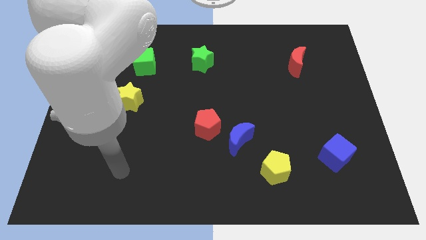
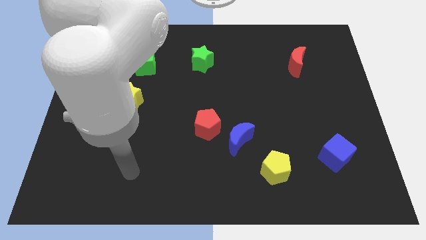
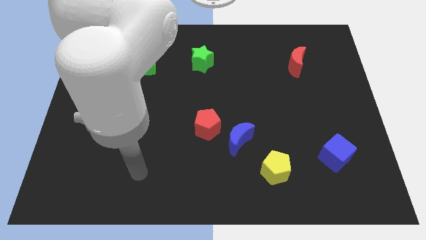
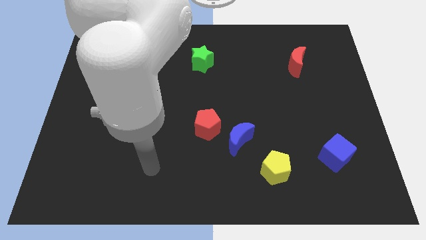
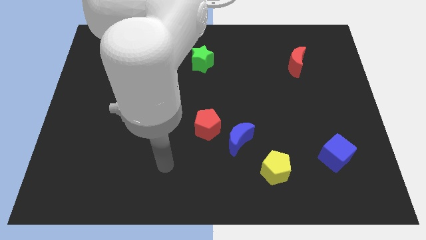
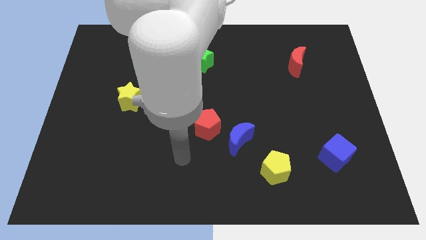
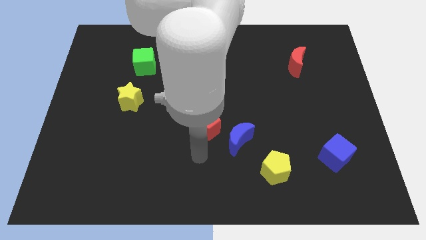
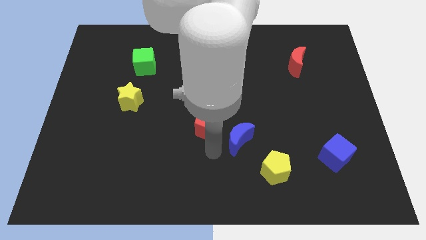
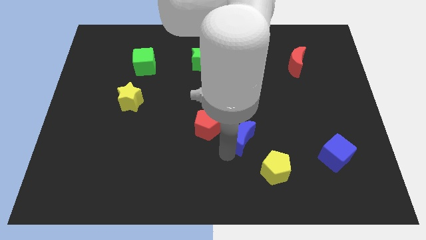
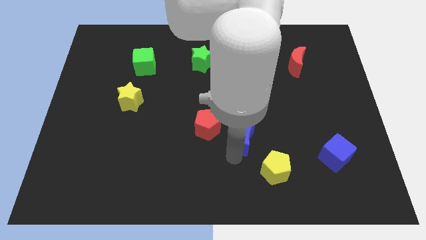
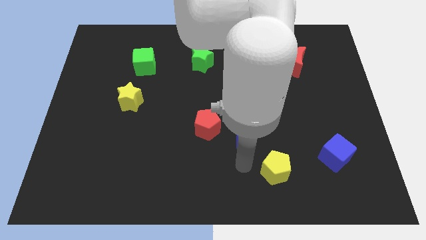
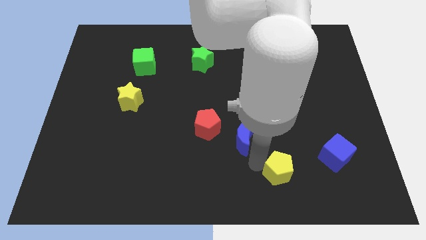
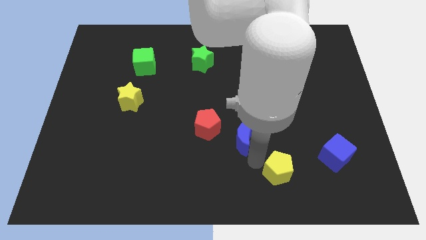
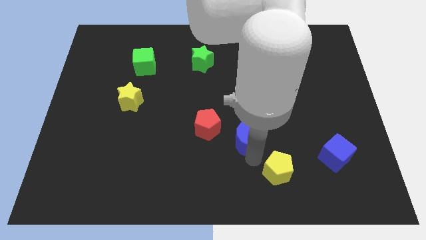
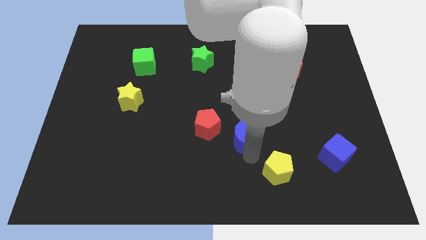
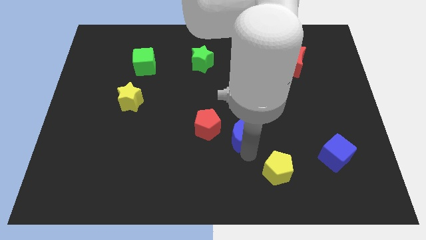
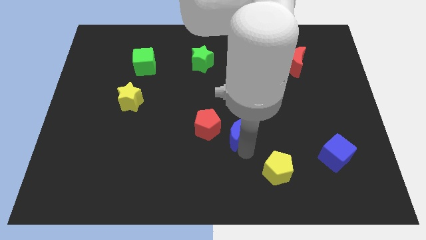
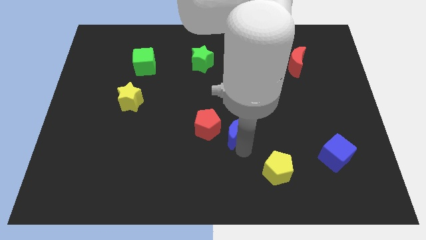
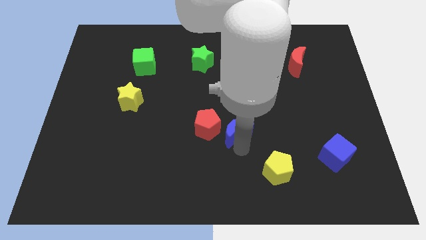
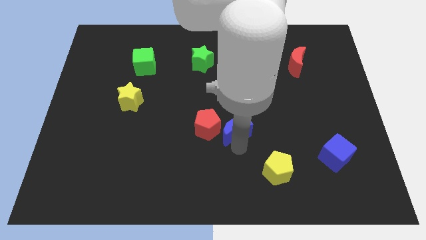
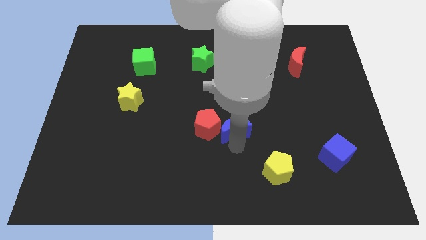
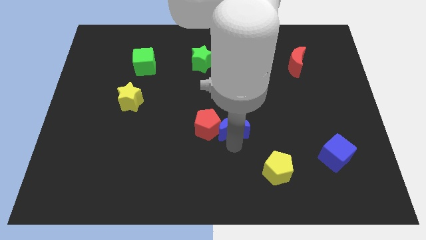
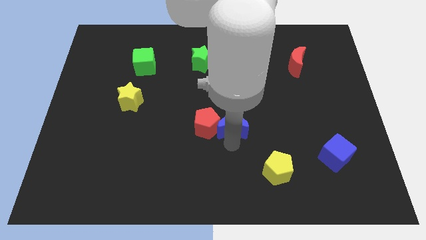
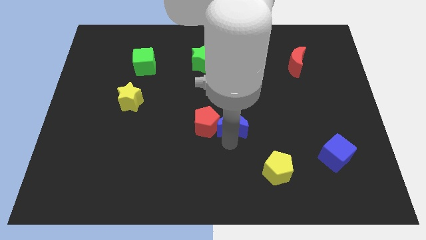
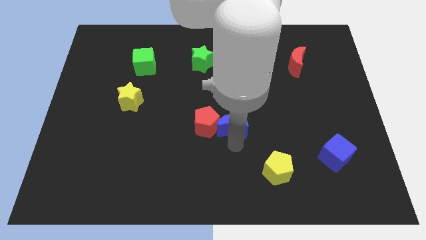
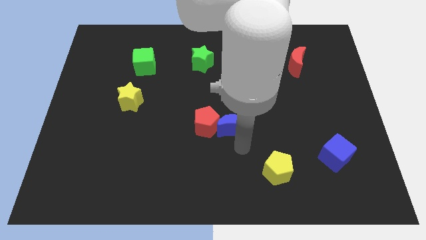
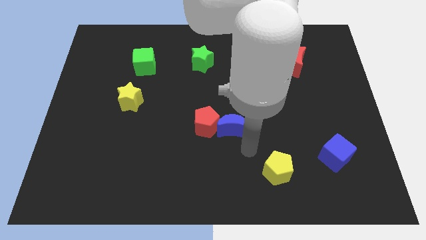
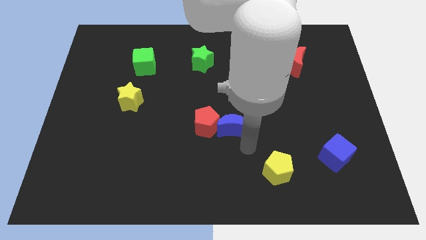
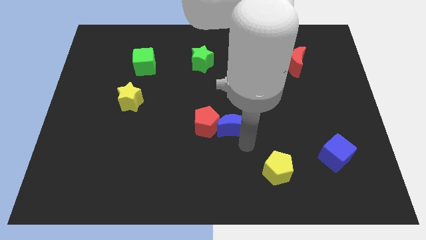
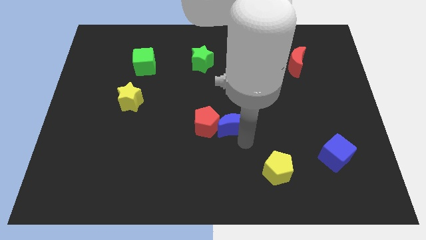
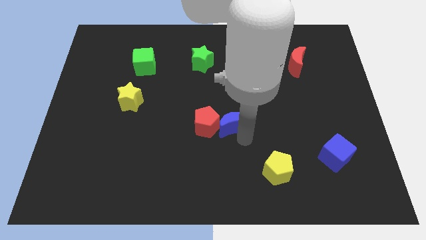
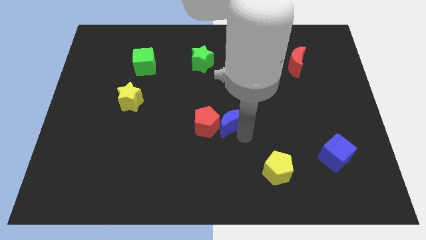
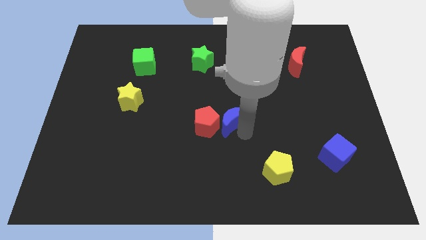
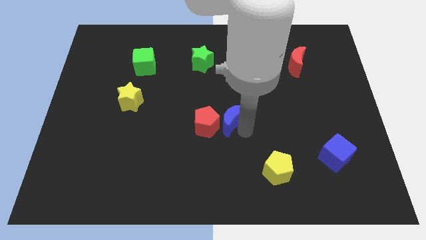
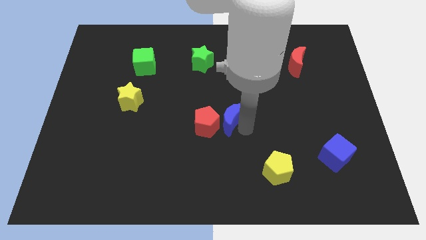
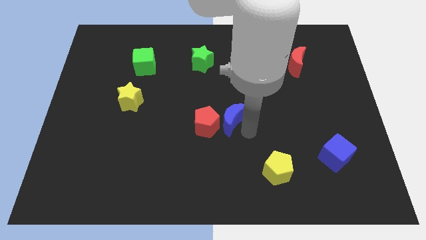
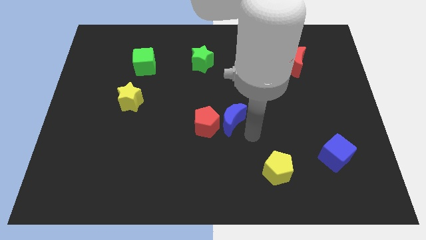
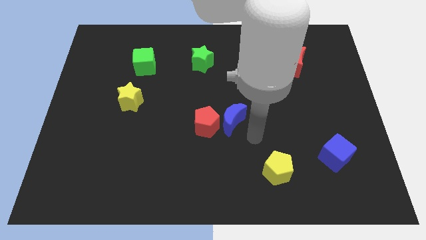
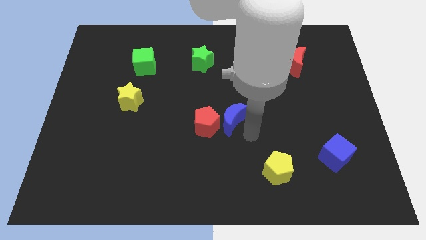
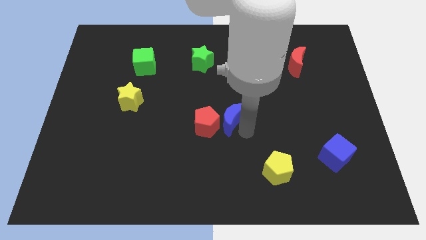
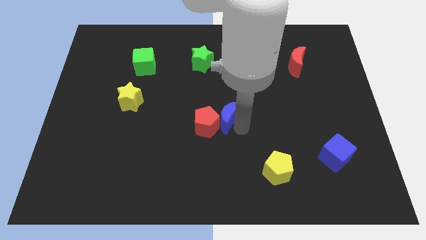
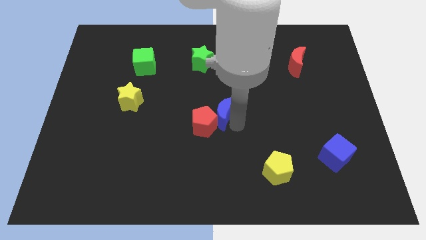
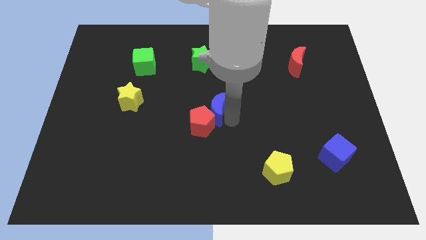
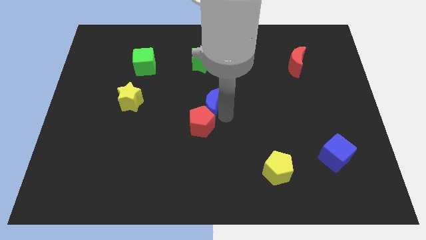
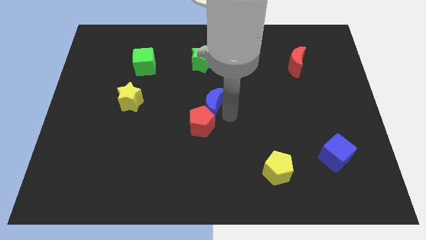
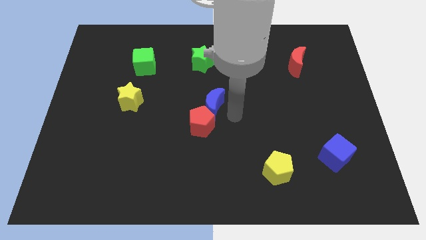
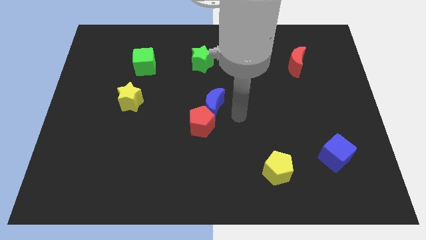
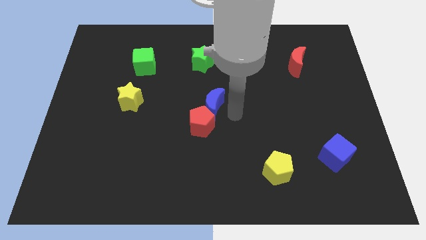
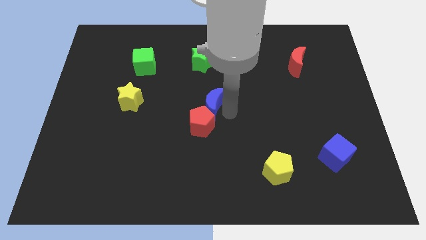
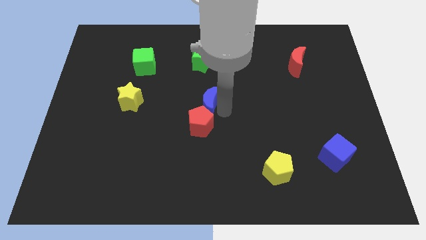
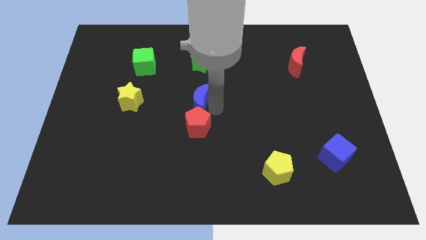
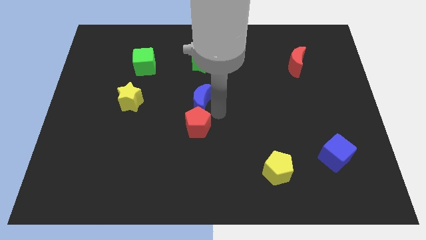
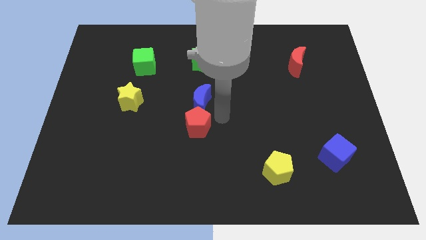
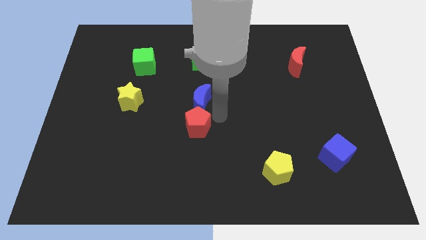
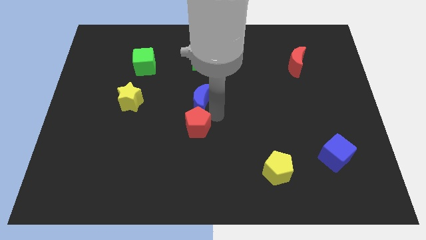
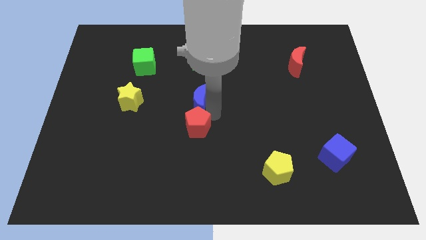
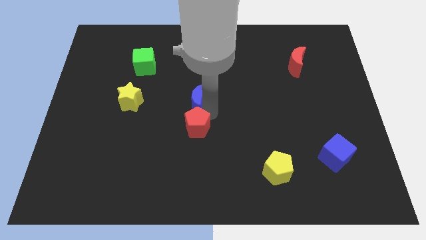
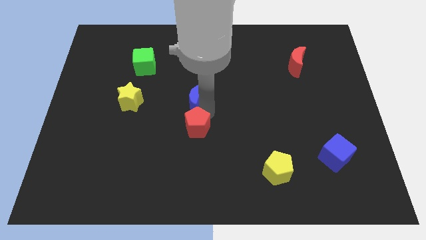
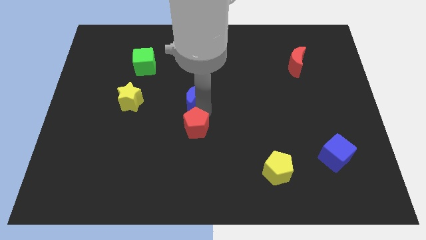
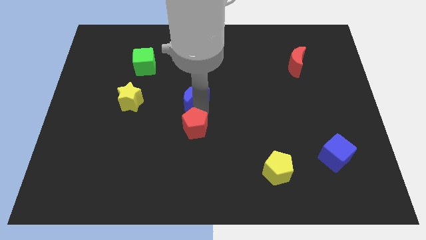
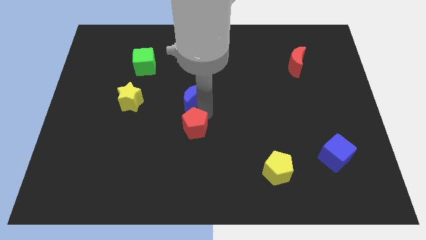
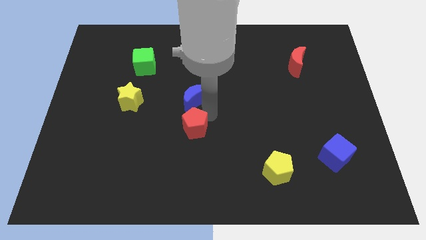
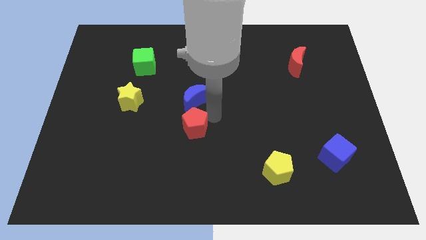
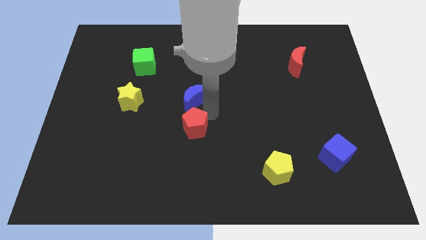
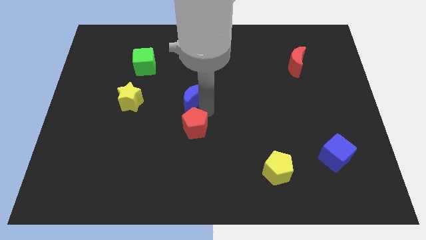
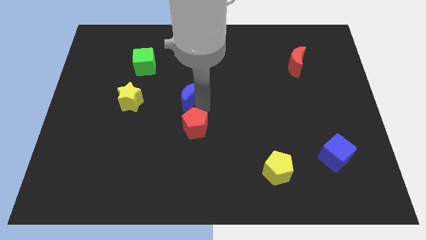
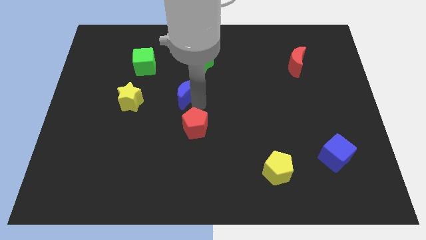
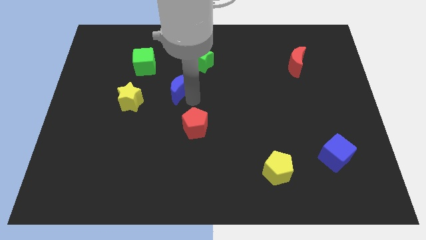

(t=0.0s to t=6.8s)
push the blue moon to the bottom right of the green cube
